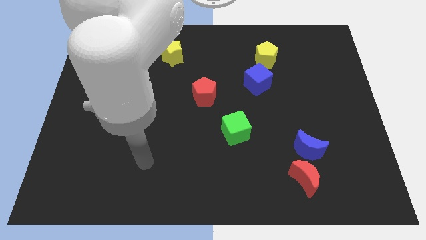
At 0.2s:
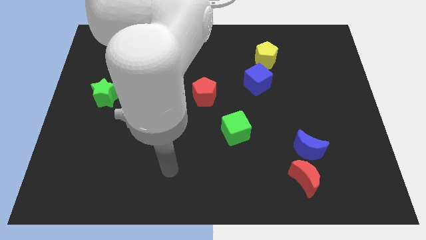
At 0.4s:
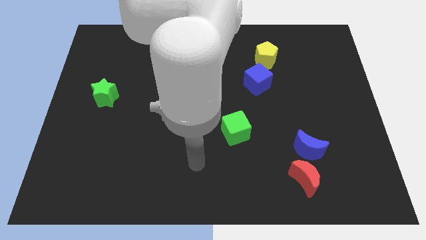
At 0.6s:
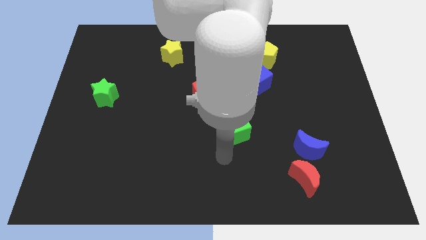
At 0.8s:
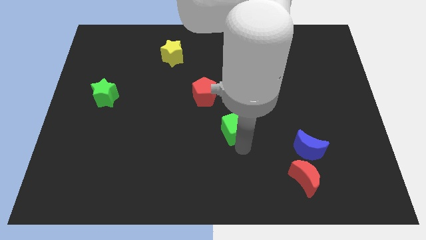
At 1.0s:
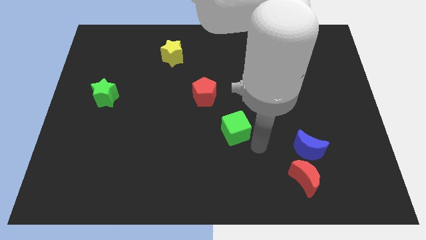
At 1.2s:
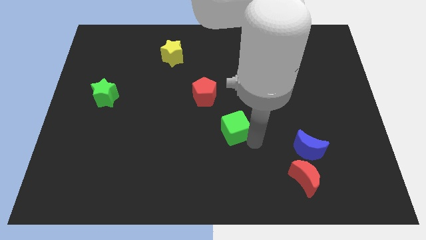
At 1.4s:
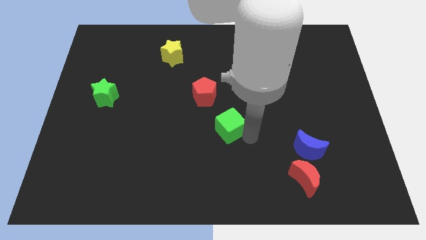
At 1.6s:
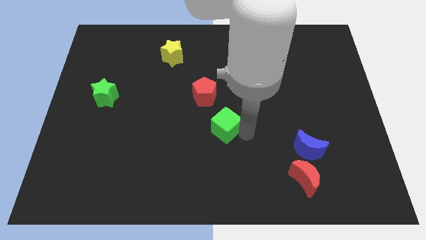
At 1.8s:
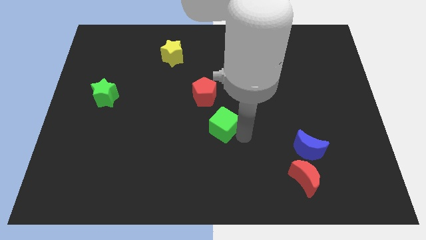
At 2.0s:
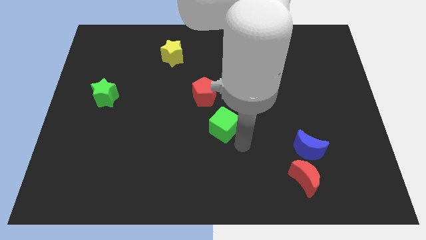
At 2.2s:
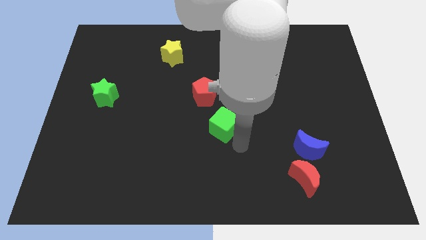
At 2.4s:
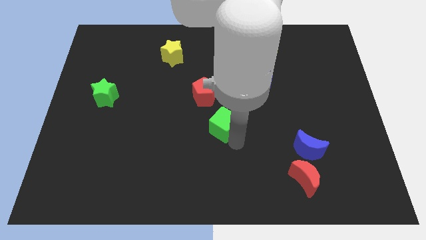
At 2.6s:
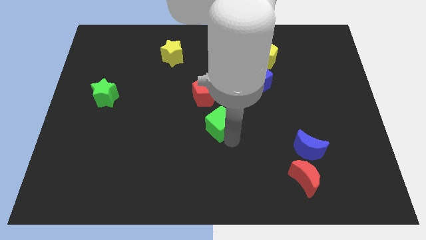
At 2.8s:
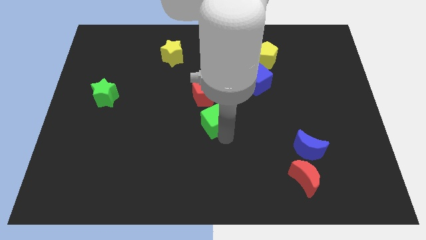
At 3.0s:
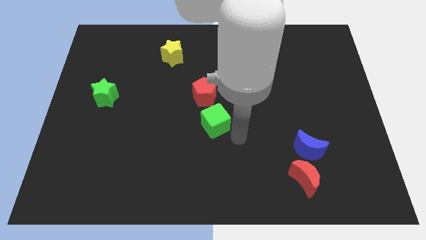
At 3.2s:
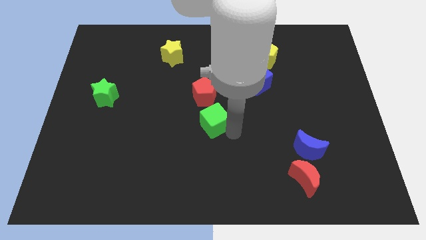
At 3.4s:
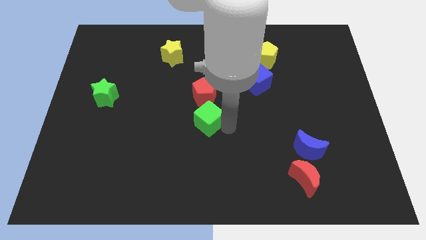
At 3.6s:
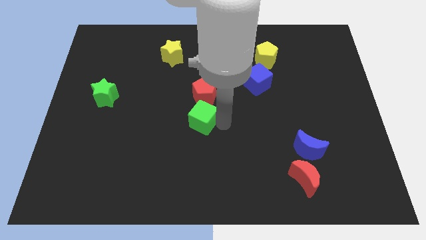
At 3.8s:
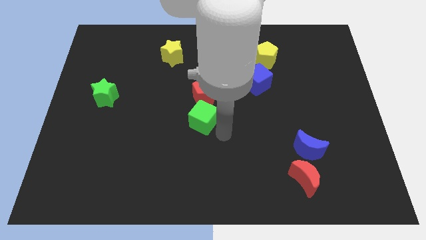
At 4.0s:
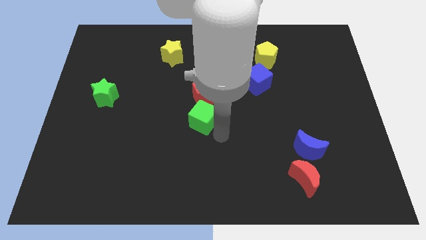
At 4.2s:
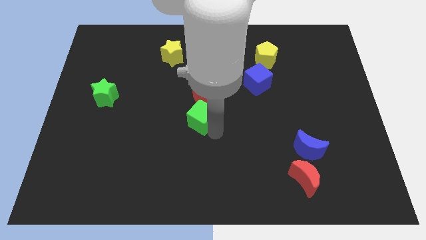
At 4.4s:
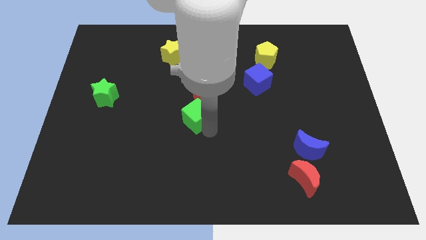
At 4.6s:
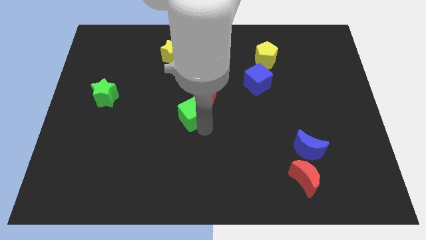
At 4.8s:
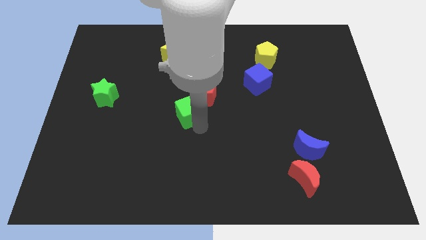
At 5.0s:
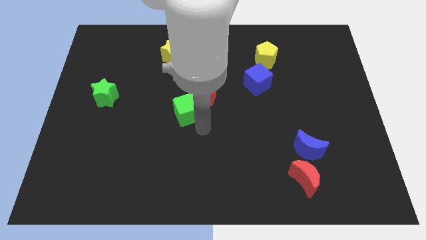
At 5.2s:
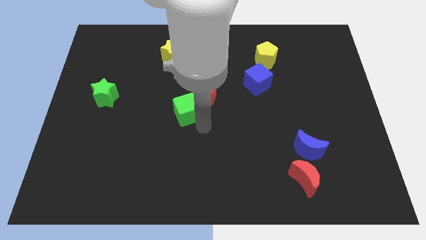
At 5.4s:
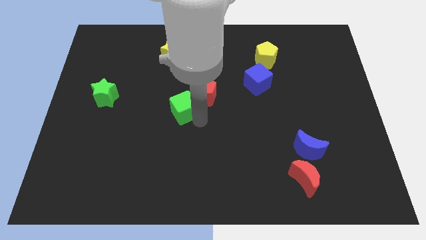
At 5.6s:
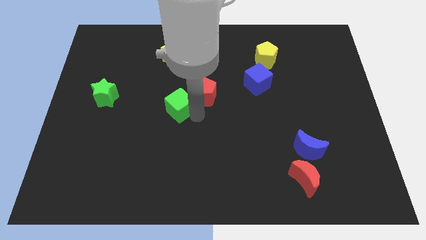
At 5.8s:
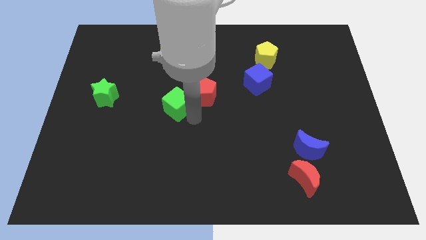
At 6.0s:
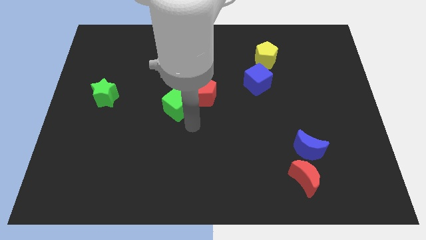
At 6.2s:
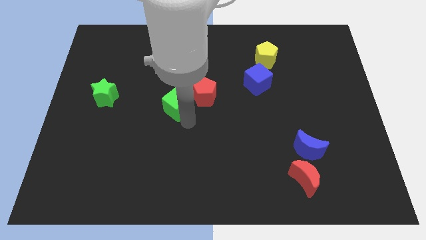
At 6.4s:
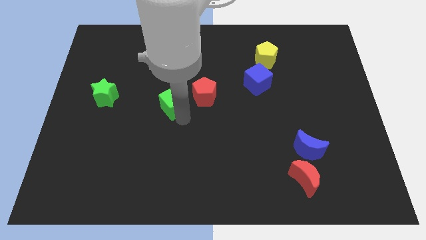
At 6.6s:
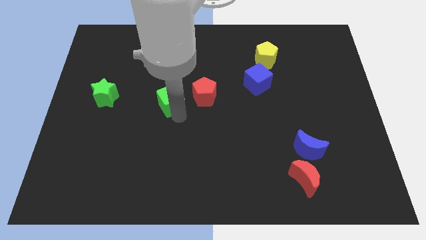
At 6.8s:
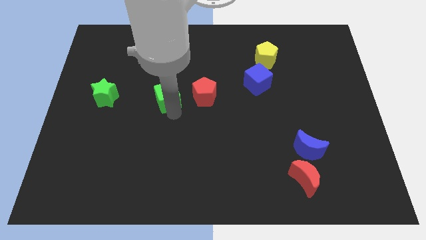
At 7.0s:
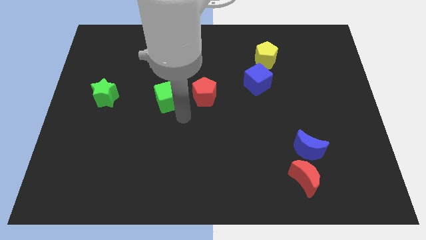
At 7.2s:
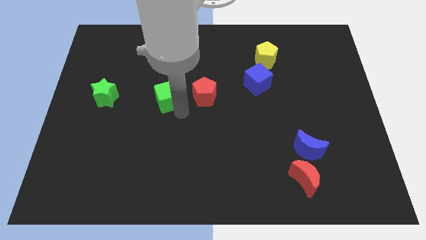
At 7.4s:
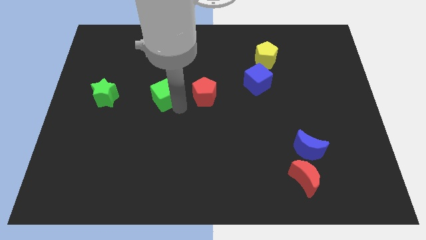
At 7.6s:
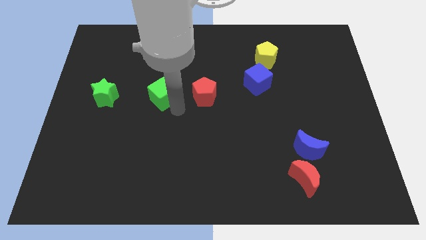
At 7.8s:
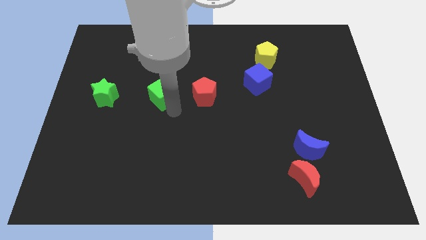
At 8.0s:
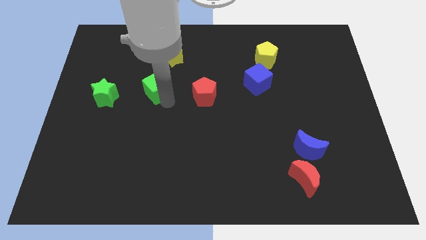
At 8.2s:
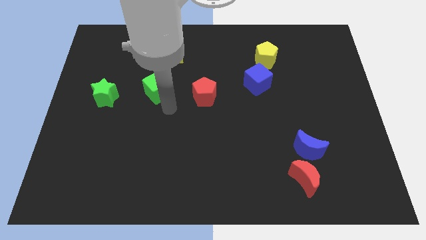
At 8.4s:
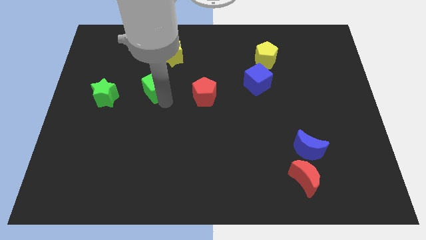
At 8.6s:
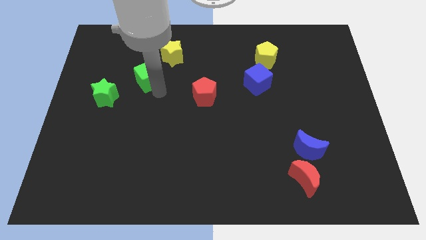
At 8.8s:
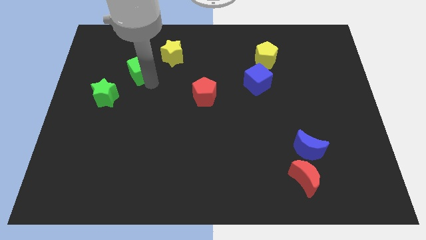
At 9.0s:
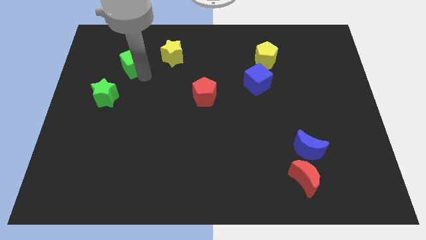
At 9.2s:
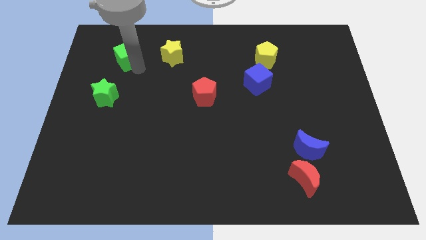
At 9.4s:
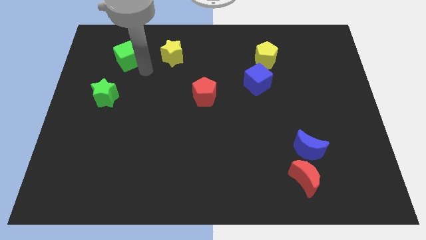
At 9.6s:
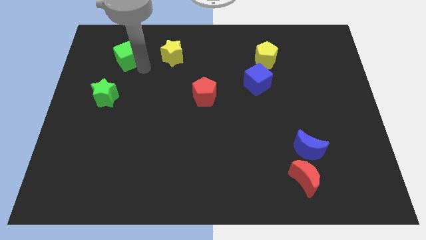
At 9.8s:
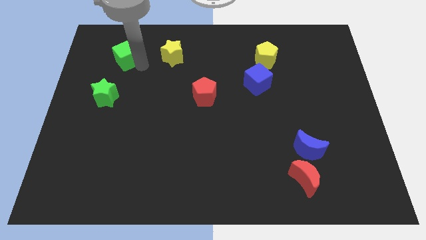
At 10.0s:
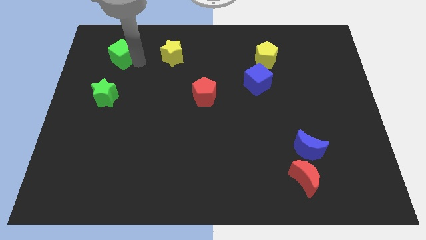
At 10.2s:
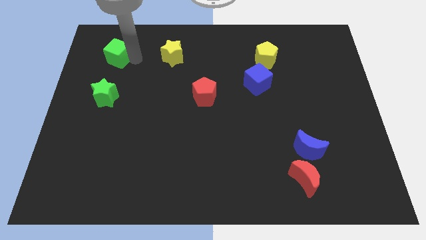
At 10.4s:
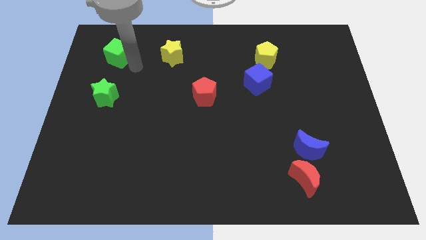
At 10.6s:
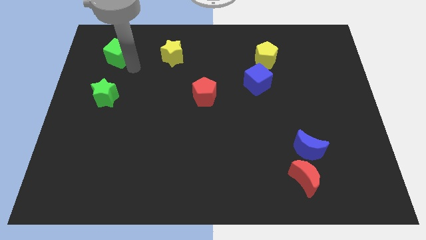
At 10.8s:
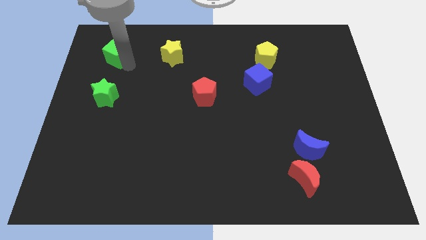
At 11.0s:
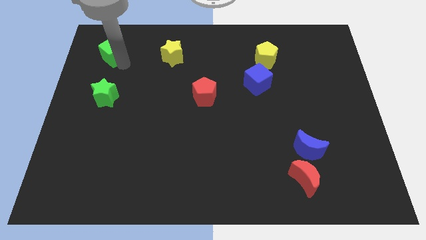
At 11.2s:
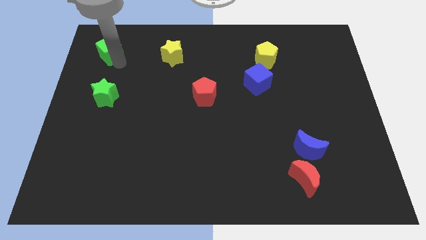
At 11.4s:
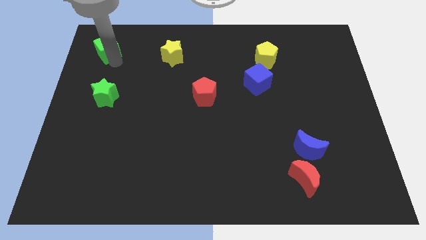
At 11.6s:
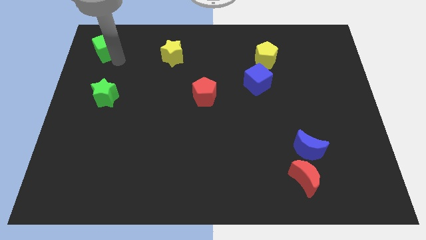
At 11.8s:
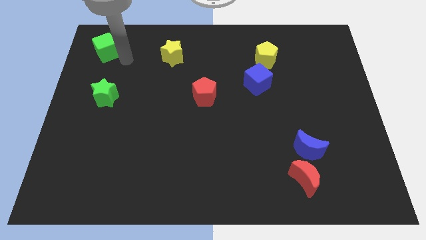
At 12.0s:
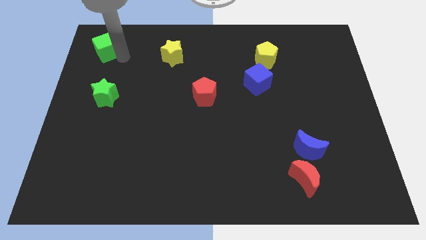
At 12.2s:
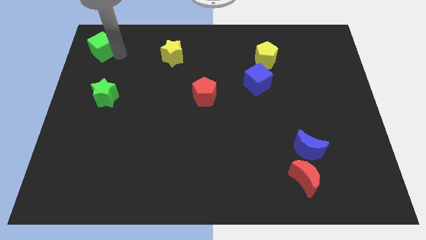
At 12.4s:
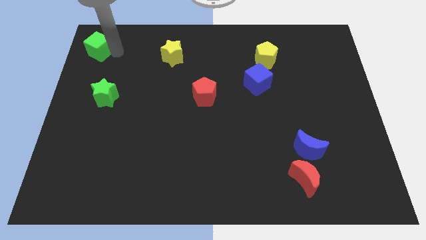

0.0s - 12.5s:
push the green cube to the top left
